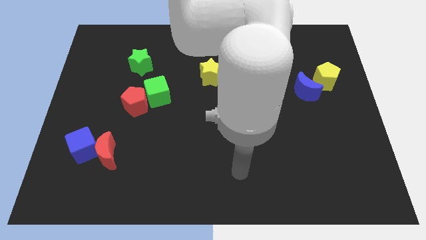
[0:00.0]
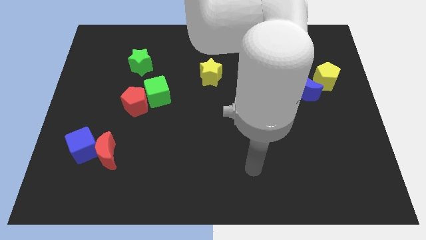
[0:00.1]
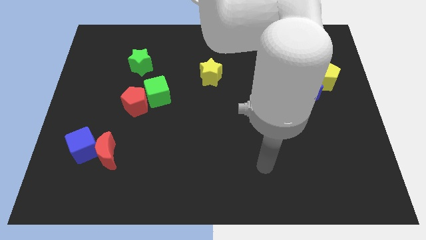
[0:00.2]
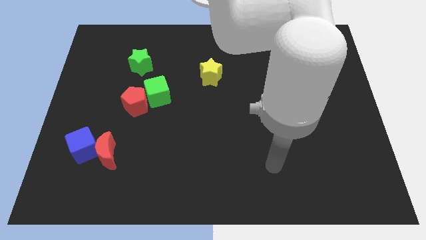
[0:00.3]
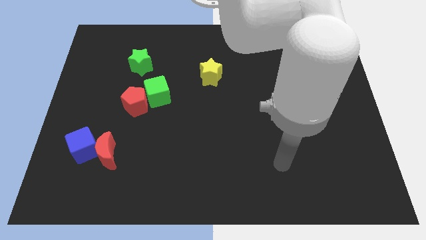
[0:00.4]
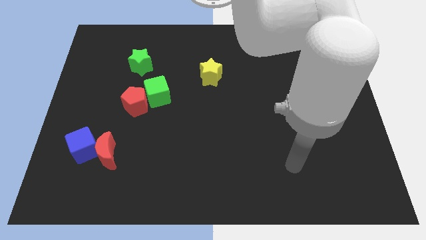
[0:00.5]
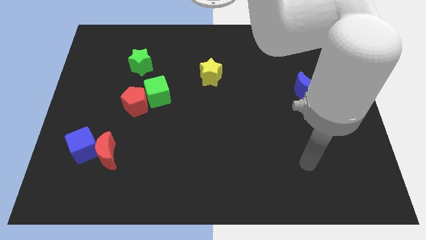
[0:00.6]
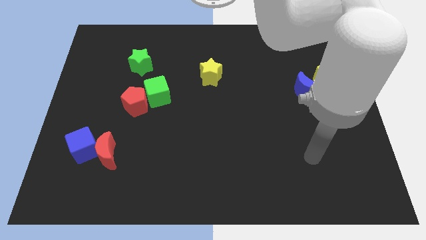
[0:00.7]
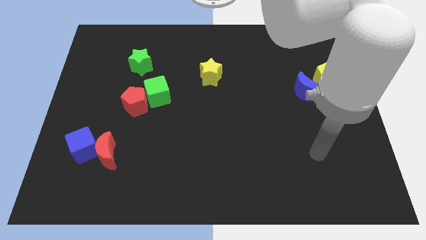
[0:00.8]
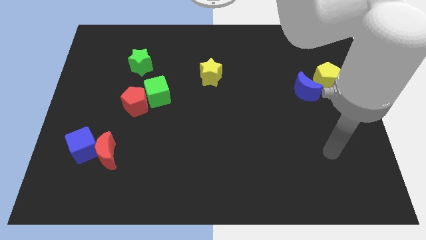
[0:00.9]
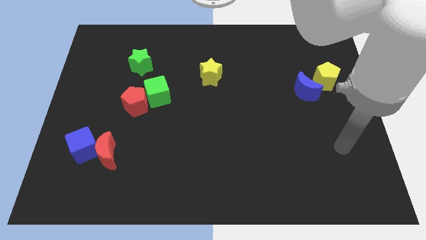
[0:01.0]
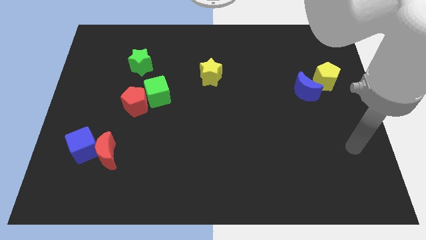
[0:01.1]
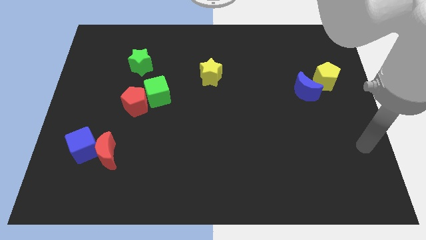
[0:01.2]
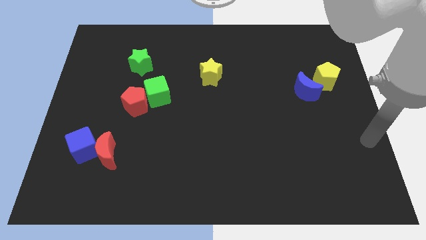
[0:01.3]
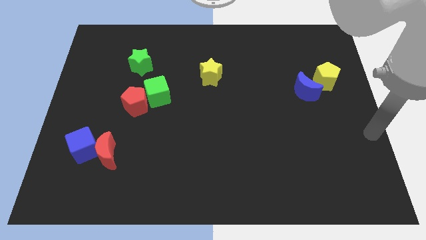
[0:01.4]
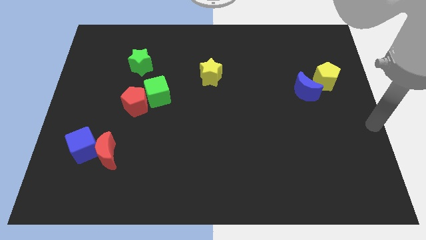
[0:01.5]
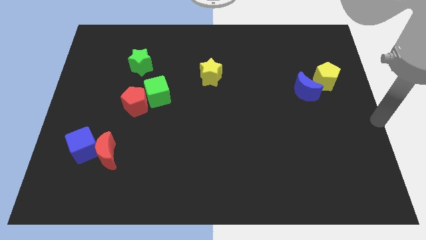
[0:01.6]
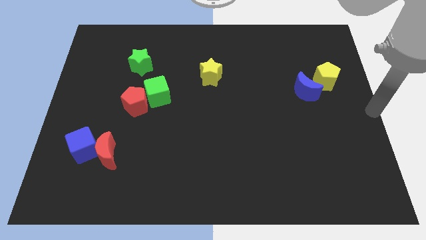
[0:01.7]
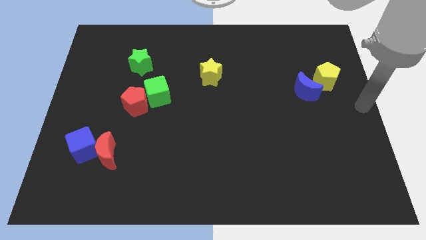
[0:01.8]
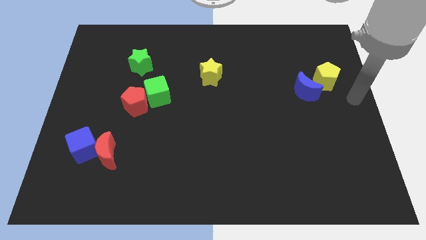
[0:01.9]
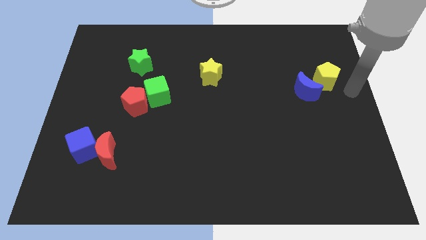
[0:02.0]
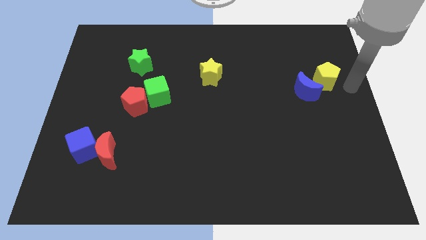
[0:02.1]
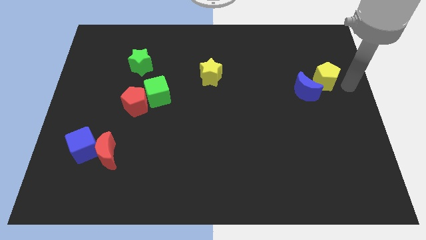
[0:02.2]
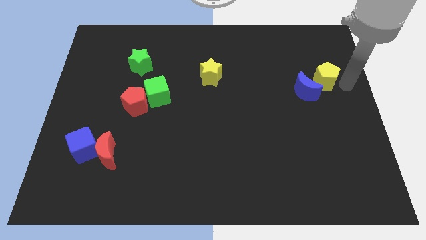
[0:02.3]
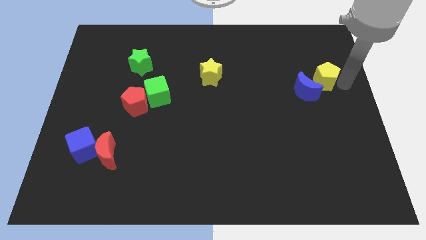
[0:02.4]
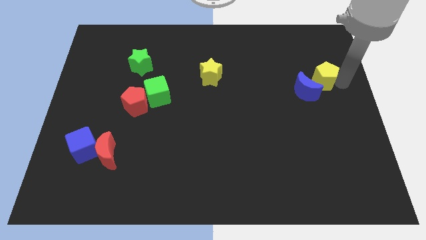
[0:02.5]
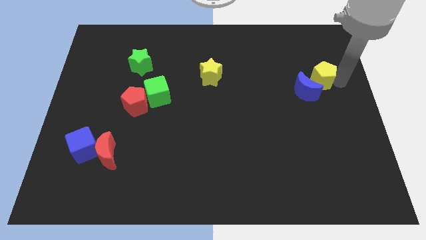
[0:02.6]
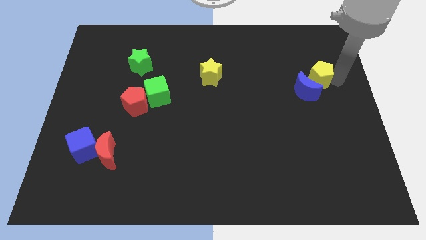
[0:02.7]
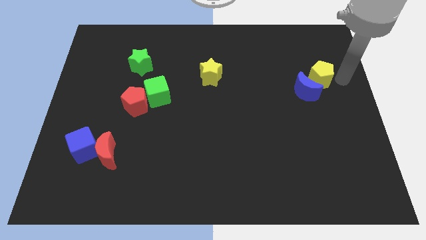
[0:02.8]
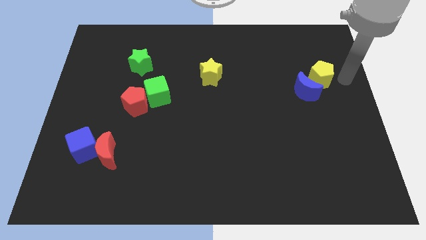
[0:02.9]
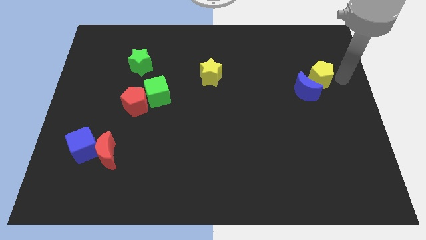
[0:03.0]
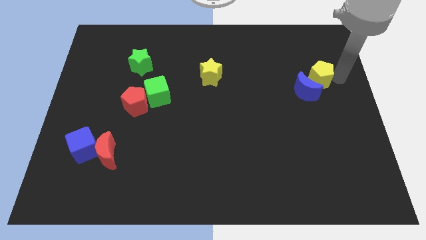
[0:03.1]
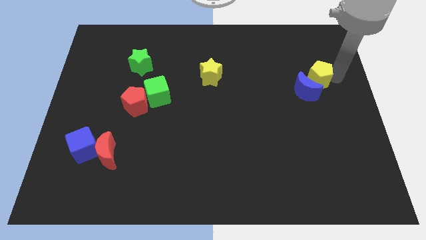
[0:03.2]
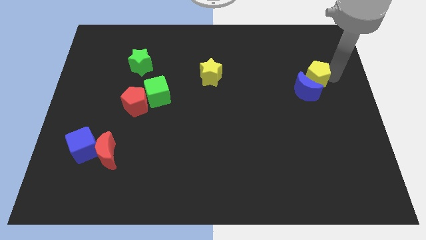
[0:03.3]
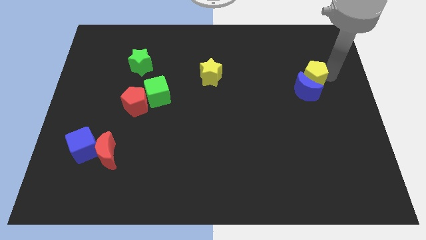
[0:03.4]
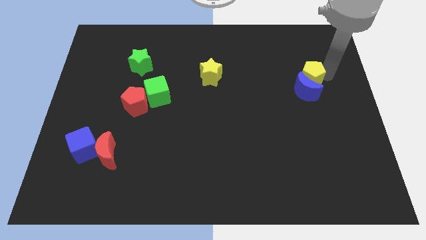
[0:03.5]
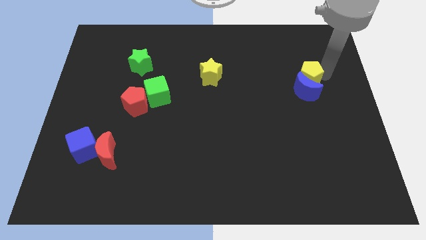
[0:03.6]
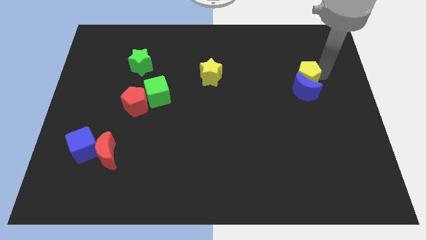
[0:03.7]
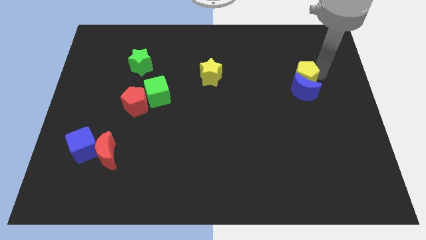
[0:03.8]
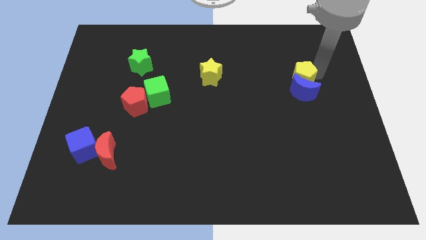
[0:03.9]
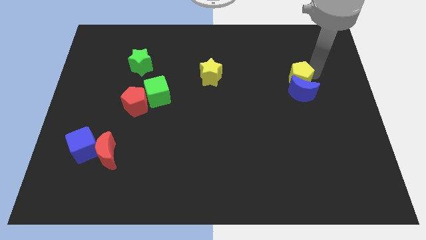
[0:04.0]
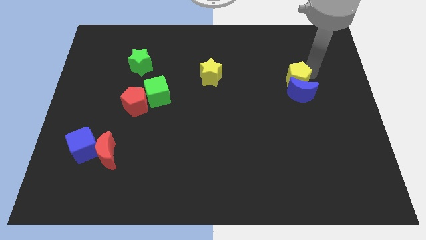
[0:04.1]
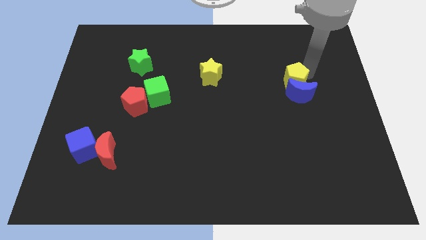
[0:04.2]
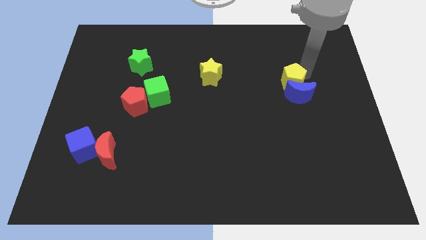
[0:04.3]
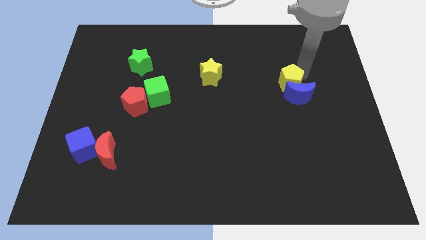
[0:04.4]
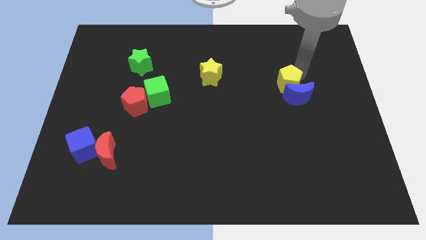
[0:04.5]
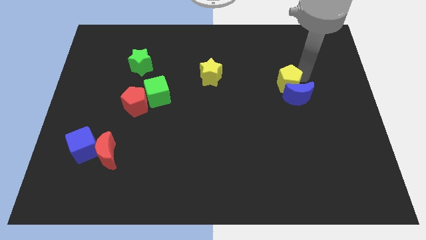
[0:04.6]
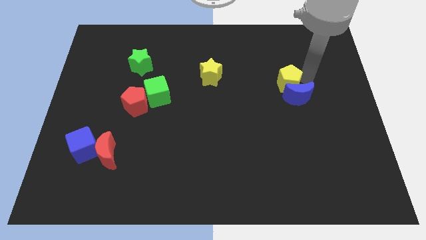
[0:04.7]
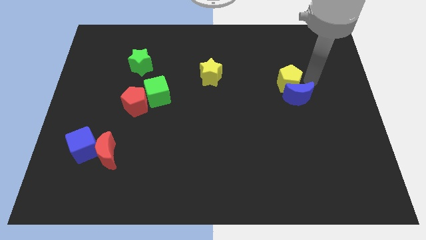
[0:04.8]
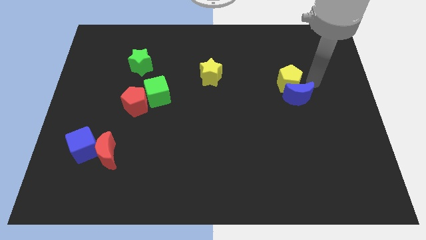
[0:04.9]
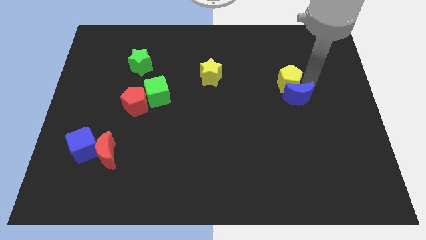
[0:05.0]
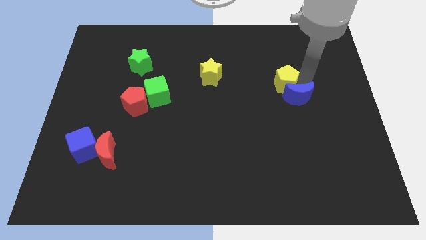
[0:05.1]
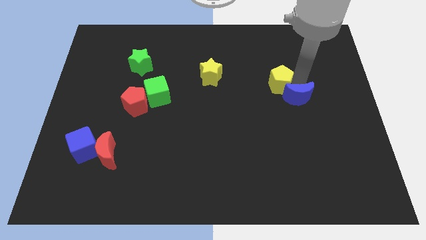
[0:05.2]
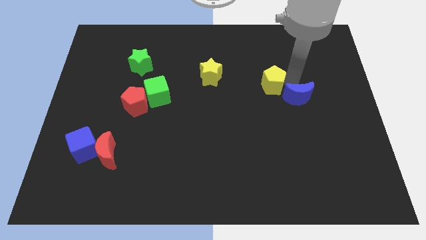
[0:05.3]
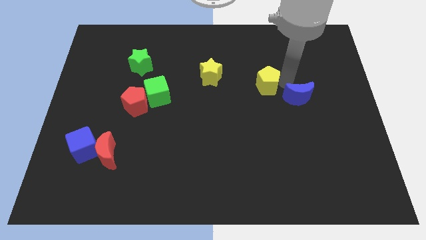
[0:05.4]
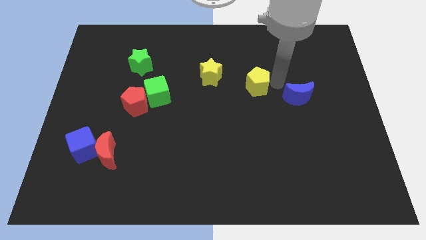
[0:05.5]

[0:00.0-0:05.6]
move the yellow pentagon to the center
